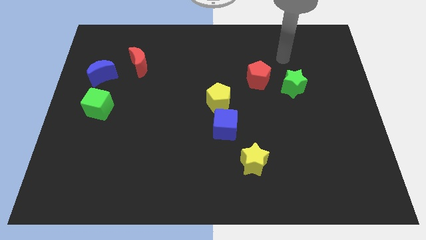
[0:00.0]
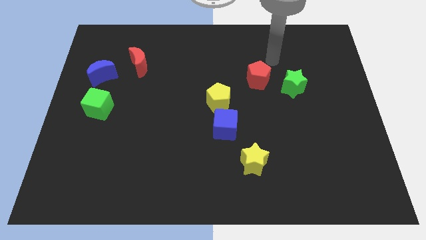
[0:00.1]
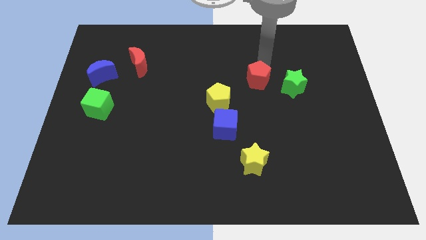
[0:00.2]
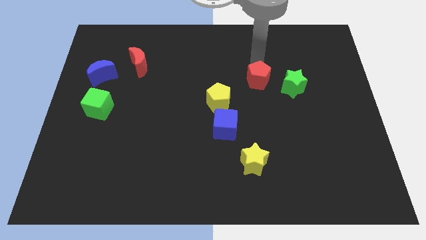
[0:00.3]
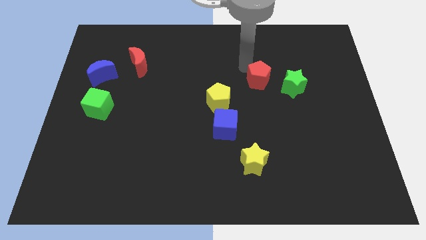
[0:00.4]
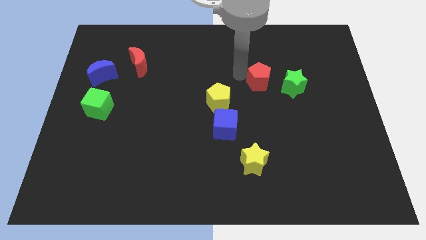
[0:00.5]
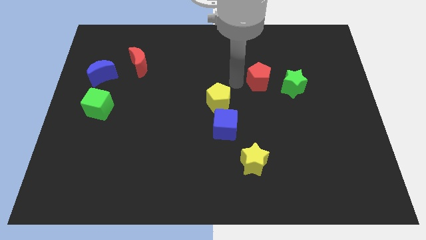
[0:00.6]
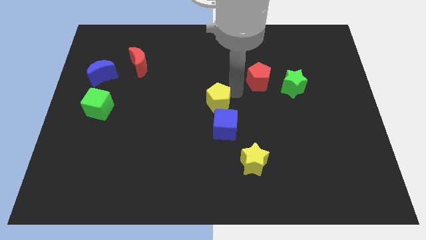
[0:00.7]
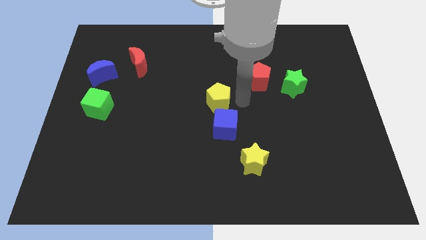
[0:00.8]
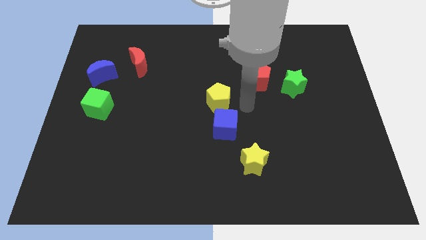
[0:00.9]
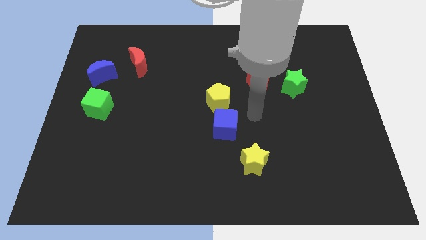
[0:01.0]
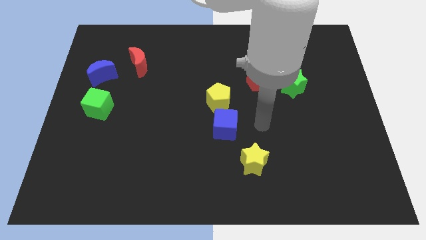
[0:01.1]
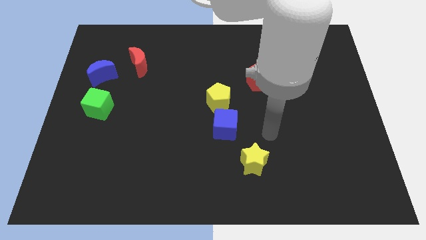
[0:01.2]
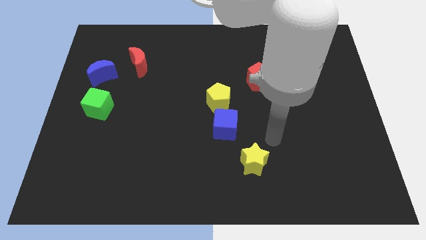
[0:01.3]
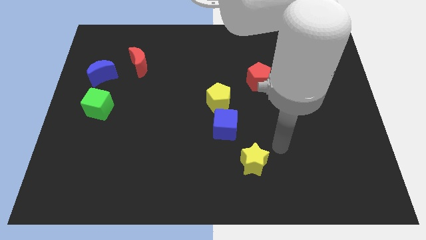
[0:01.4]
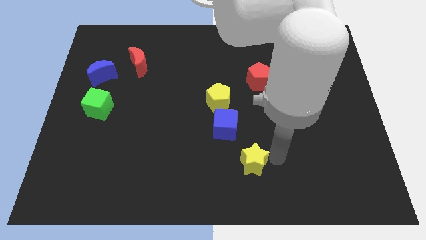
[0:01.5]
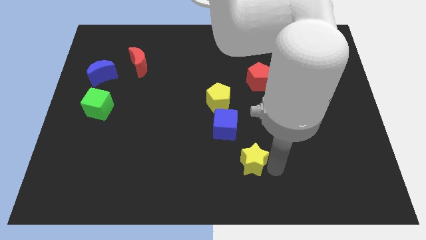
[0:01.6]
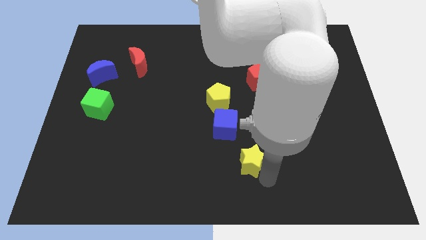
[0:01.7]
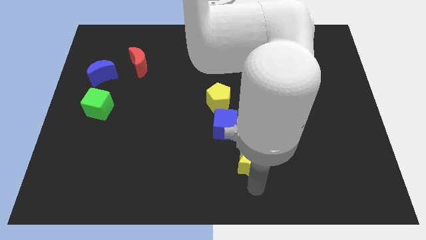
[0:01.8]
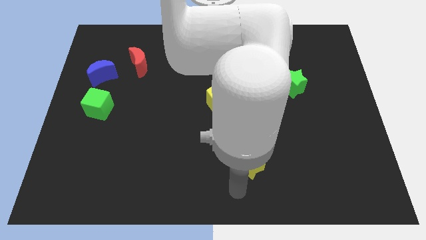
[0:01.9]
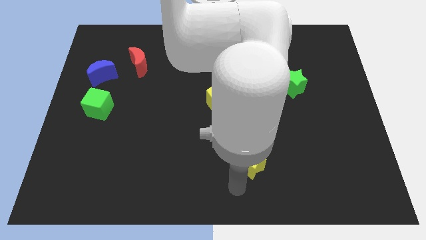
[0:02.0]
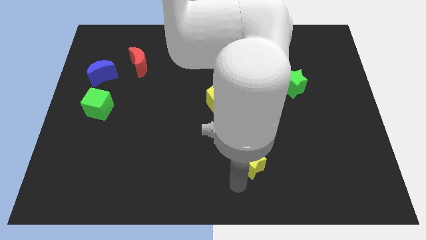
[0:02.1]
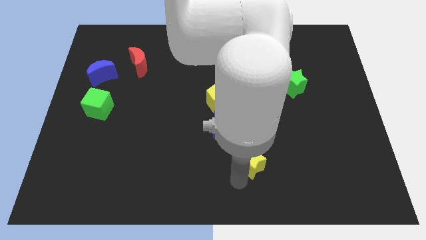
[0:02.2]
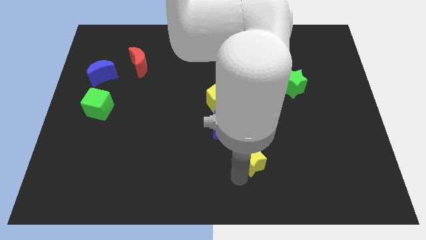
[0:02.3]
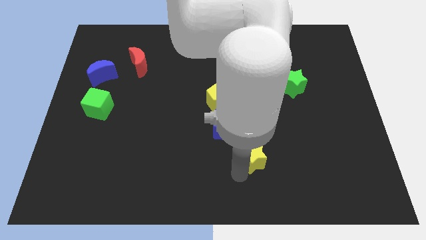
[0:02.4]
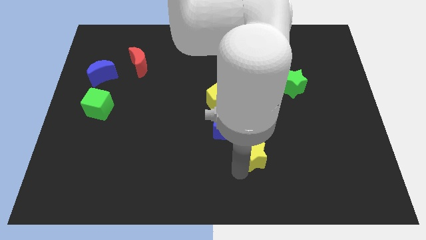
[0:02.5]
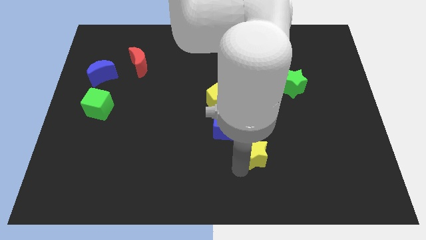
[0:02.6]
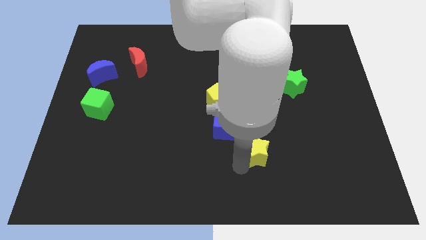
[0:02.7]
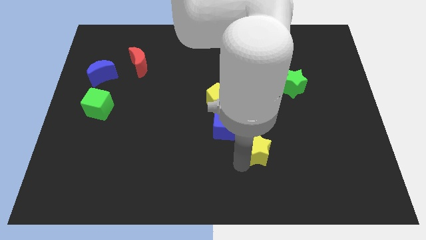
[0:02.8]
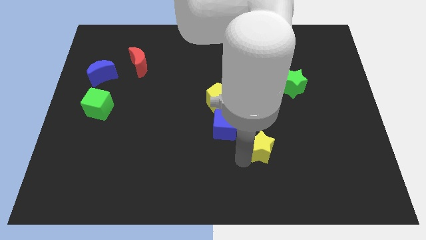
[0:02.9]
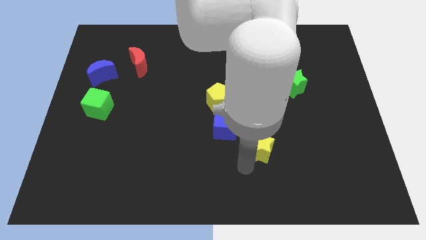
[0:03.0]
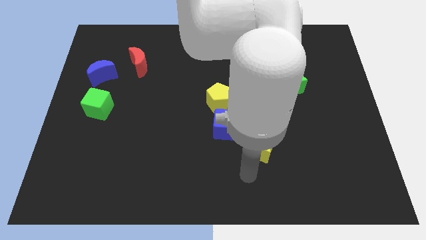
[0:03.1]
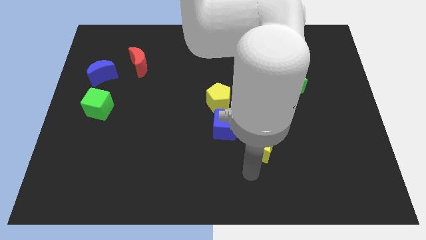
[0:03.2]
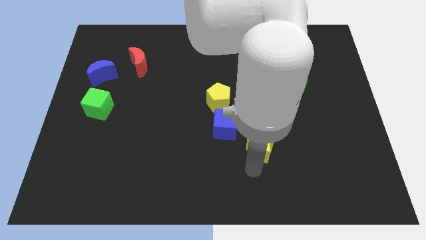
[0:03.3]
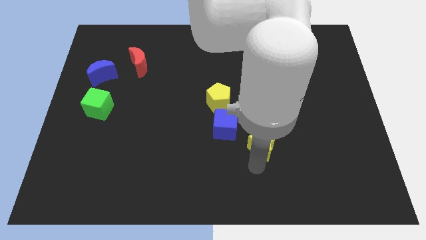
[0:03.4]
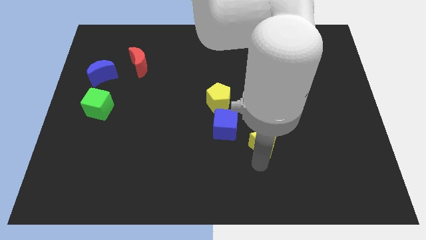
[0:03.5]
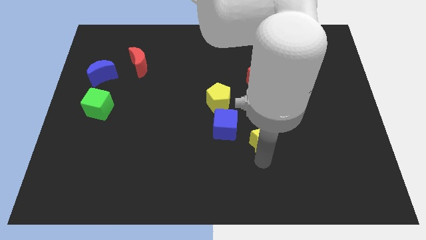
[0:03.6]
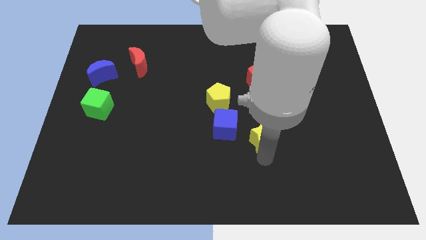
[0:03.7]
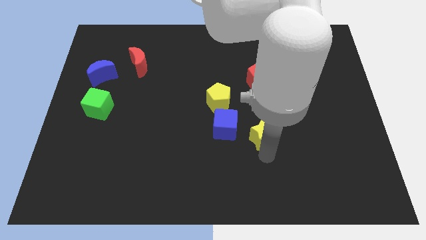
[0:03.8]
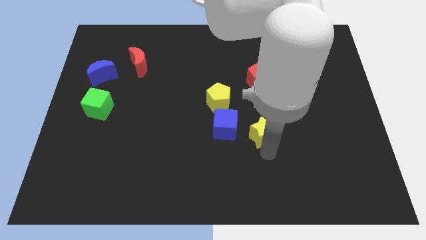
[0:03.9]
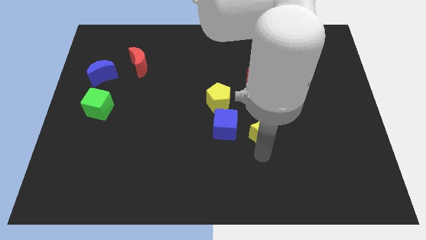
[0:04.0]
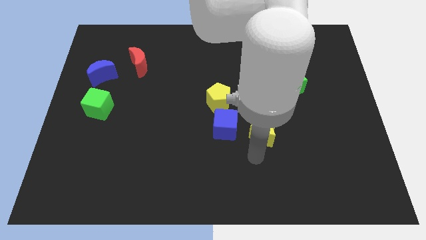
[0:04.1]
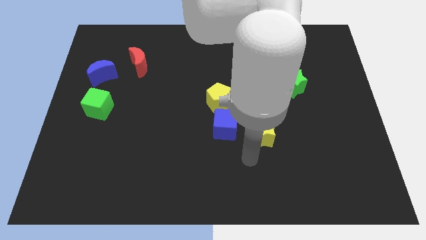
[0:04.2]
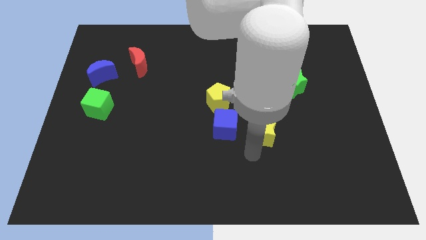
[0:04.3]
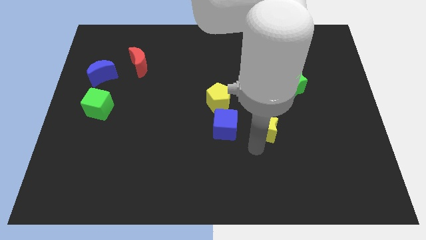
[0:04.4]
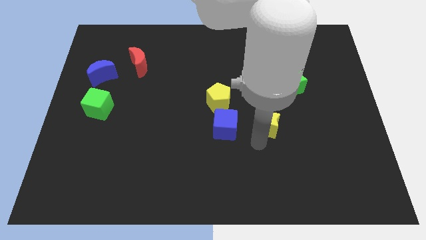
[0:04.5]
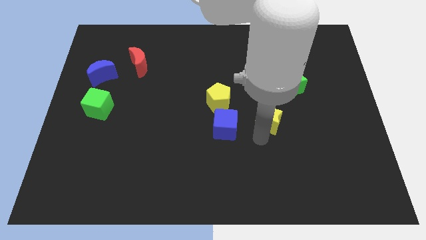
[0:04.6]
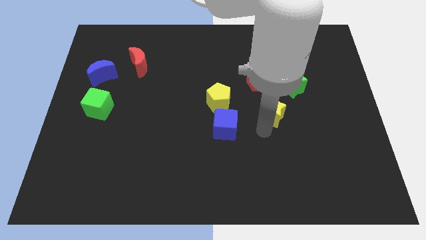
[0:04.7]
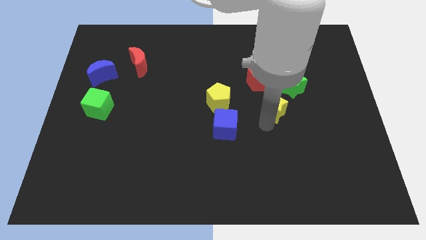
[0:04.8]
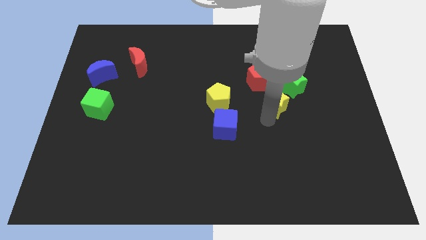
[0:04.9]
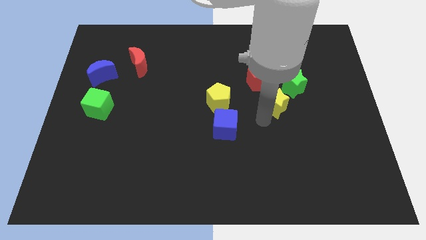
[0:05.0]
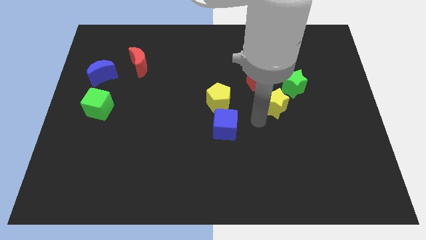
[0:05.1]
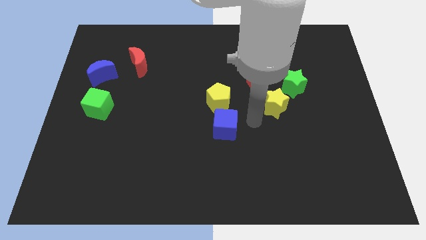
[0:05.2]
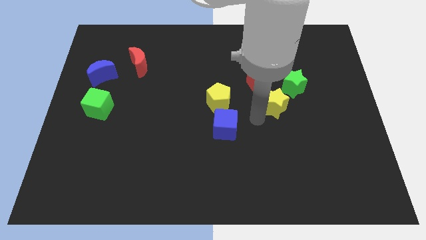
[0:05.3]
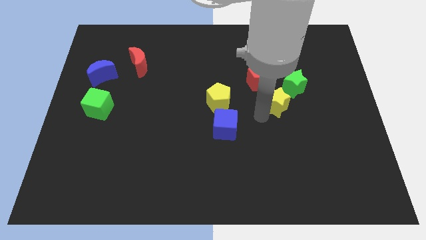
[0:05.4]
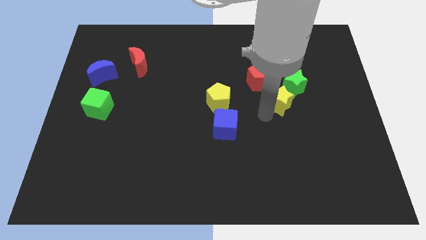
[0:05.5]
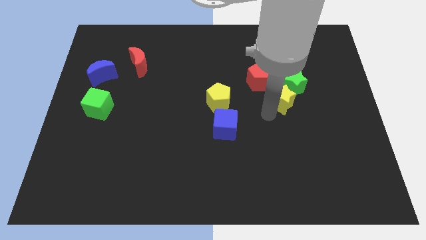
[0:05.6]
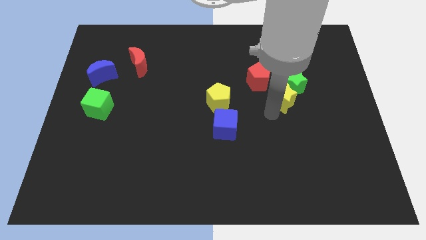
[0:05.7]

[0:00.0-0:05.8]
move the yellow star close to the green star

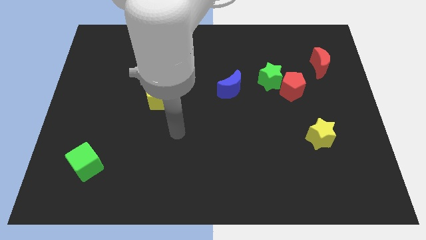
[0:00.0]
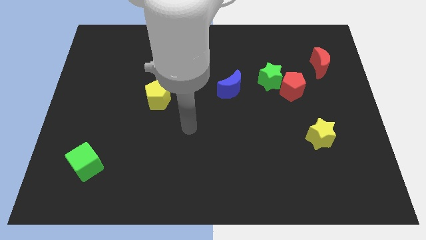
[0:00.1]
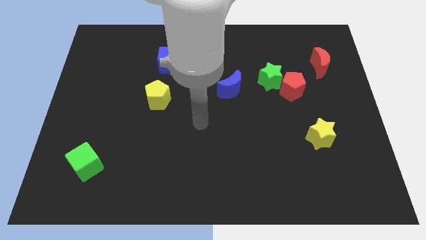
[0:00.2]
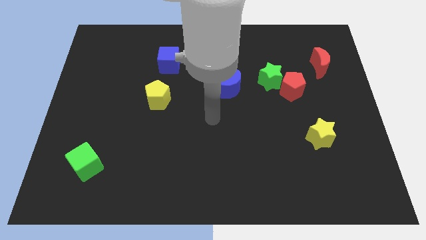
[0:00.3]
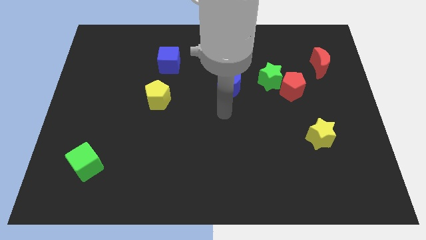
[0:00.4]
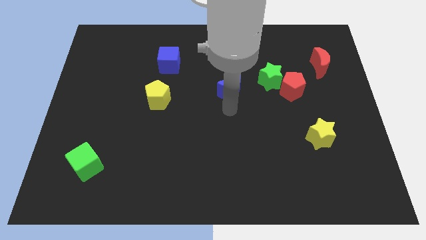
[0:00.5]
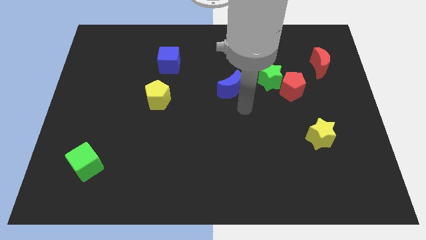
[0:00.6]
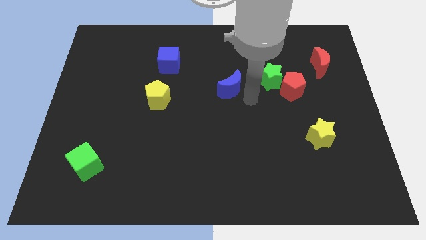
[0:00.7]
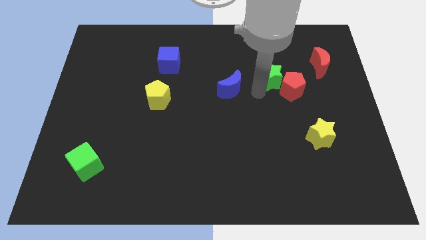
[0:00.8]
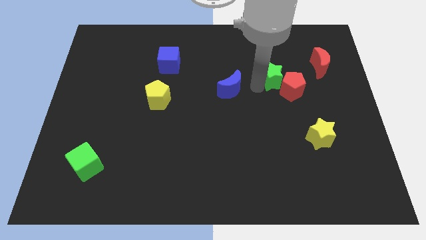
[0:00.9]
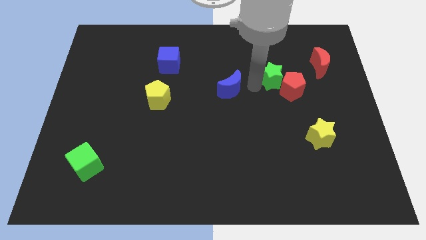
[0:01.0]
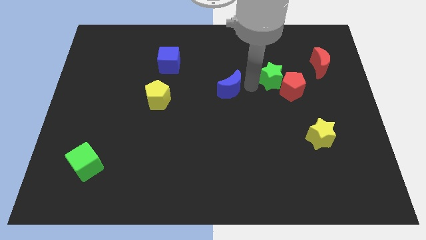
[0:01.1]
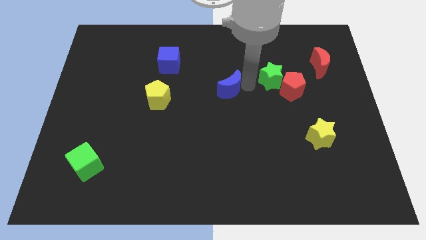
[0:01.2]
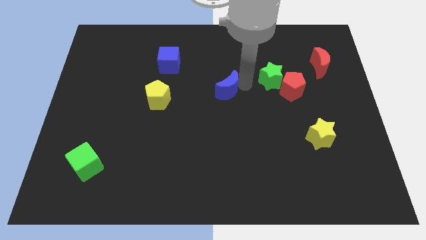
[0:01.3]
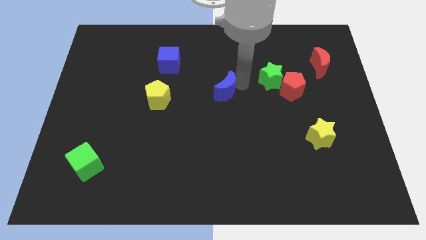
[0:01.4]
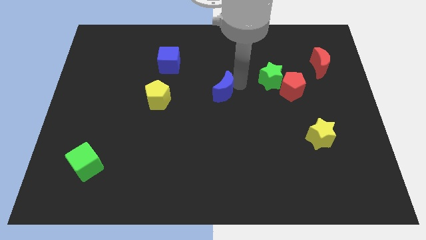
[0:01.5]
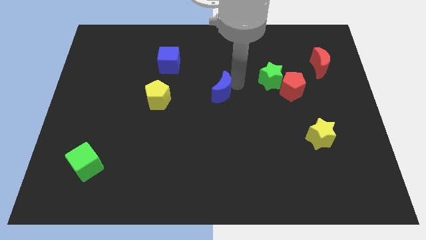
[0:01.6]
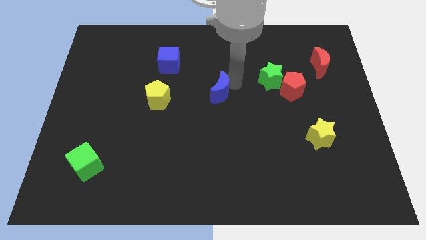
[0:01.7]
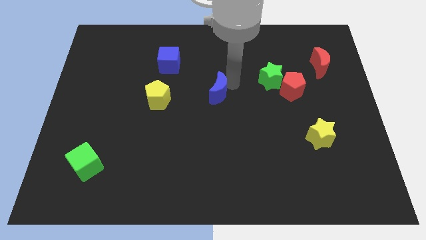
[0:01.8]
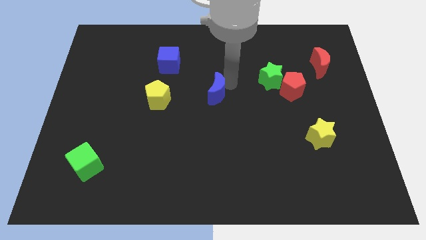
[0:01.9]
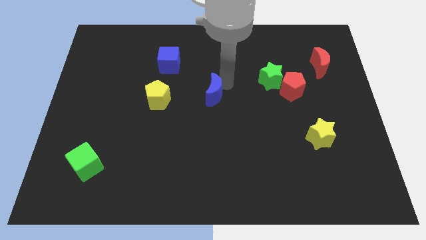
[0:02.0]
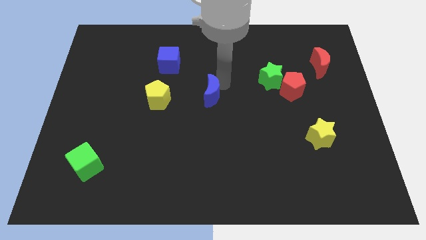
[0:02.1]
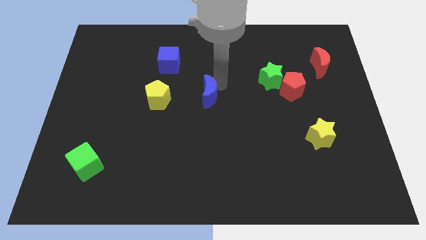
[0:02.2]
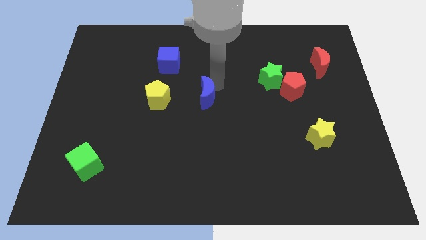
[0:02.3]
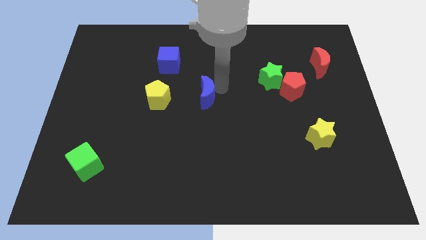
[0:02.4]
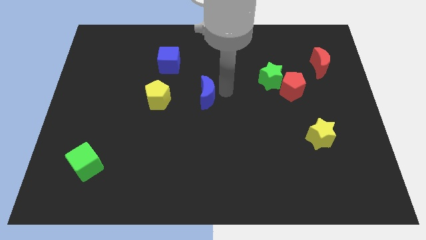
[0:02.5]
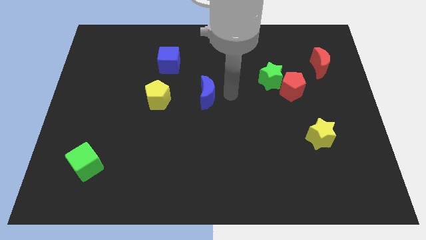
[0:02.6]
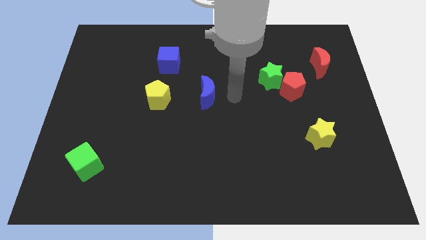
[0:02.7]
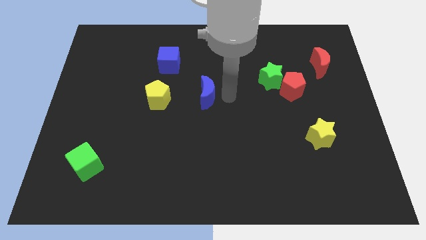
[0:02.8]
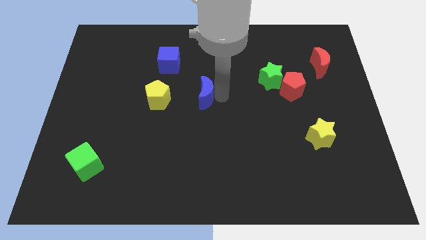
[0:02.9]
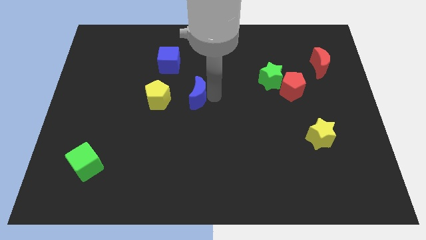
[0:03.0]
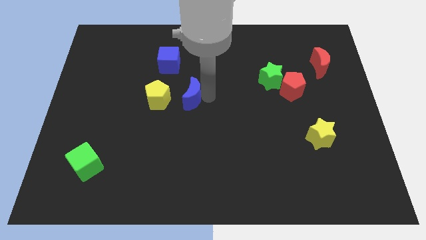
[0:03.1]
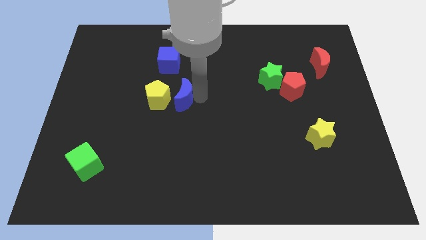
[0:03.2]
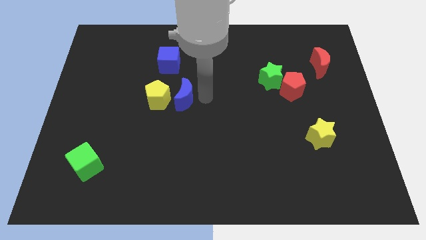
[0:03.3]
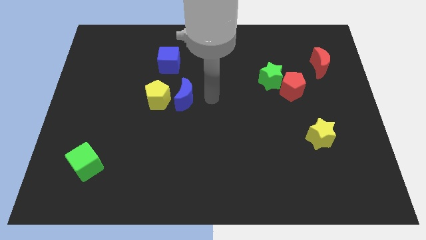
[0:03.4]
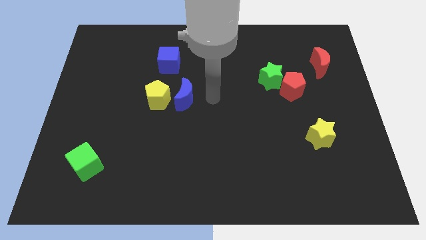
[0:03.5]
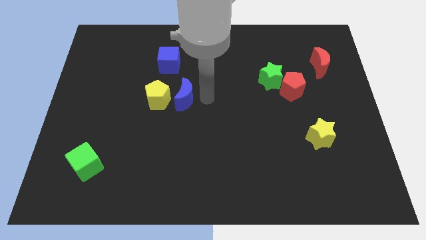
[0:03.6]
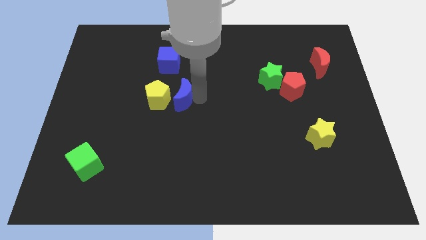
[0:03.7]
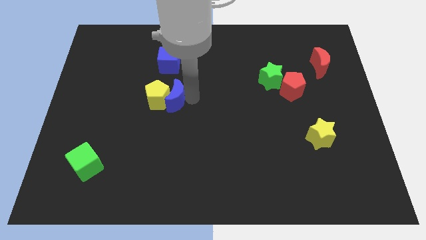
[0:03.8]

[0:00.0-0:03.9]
move the blue moon to the yellow pentagon
